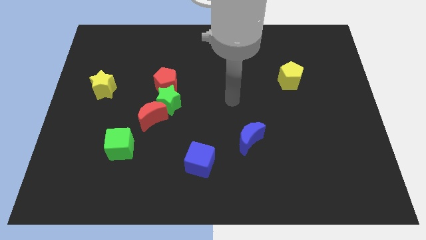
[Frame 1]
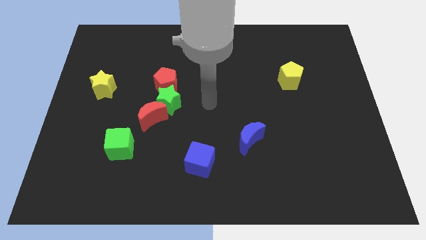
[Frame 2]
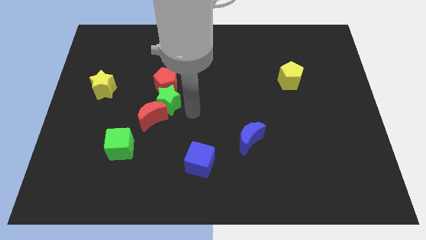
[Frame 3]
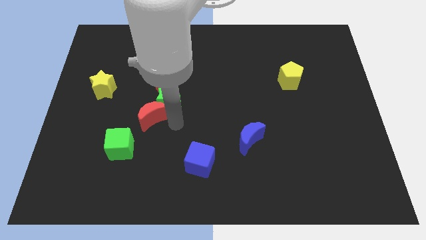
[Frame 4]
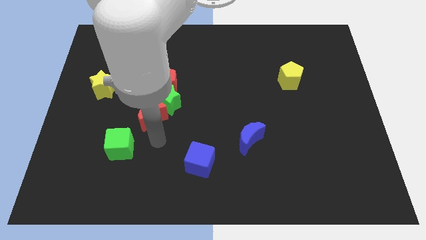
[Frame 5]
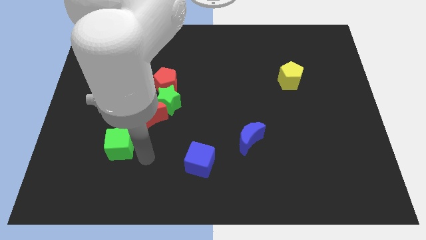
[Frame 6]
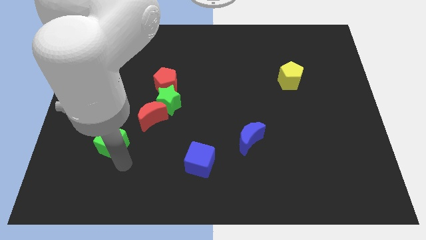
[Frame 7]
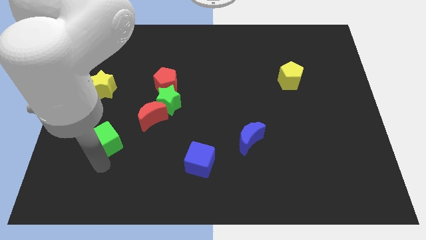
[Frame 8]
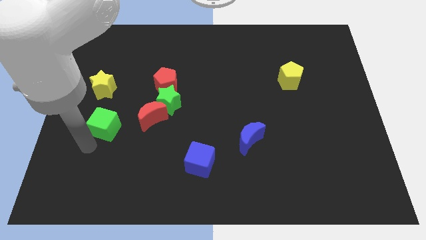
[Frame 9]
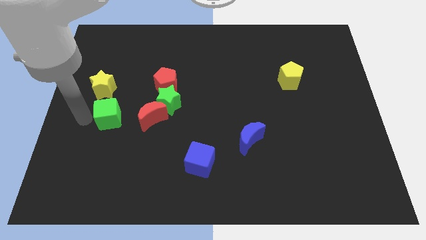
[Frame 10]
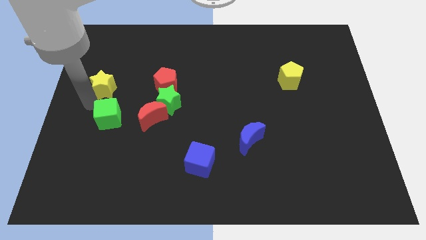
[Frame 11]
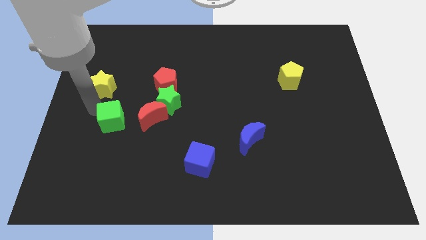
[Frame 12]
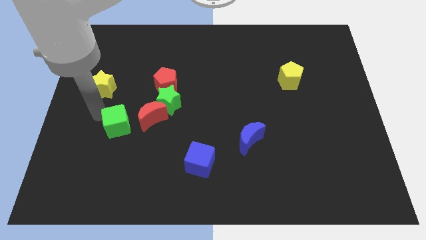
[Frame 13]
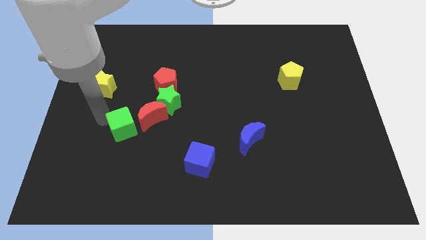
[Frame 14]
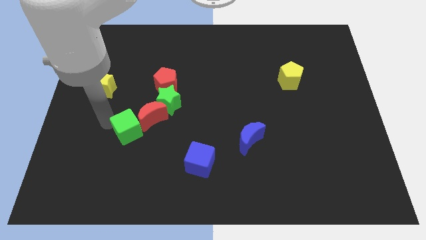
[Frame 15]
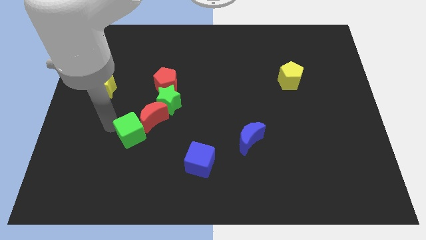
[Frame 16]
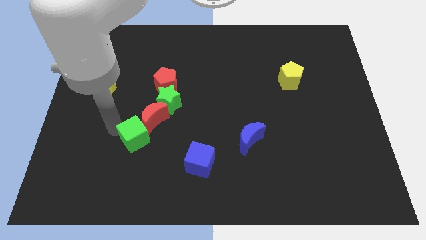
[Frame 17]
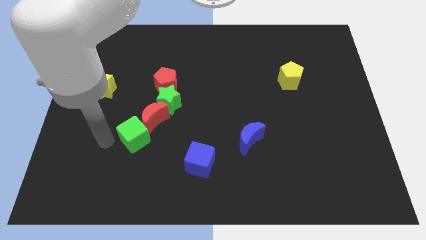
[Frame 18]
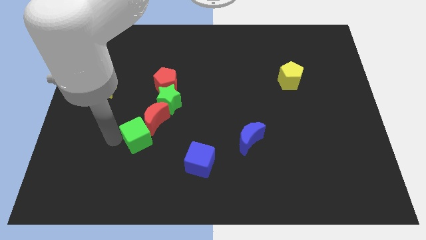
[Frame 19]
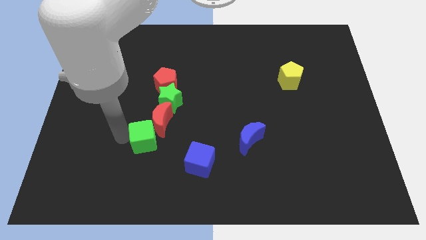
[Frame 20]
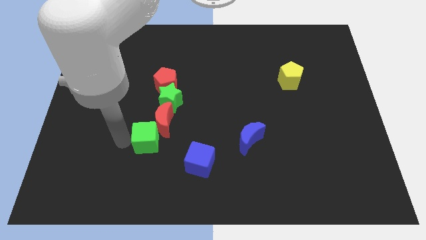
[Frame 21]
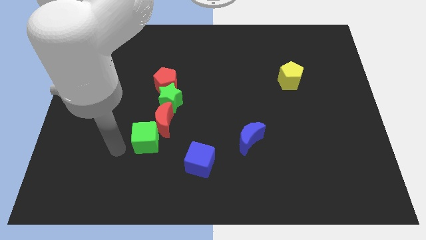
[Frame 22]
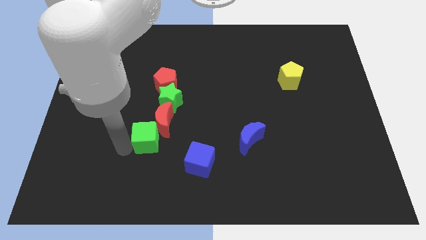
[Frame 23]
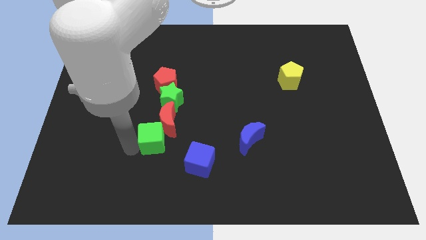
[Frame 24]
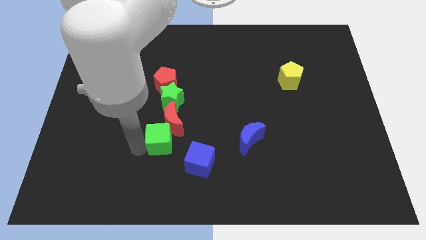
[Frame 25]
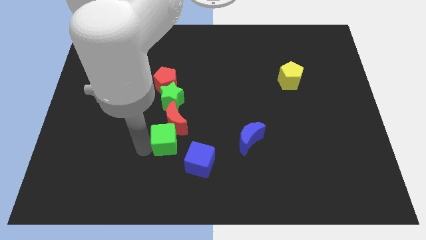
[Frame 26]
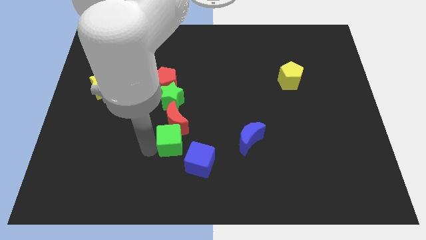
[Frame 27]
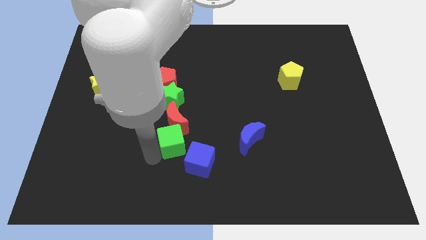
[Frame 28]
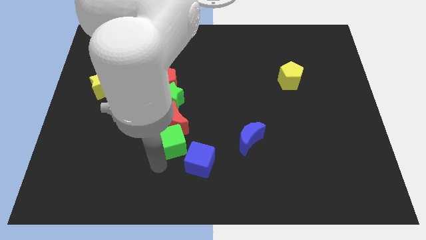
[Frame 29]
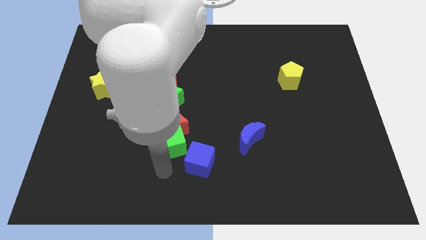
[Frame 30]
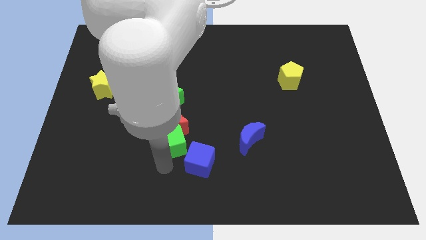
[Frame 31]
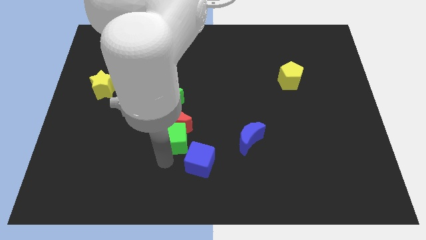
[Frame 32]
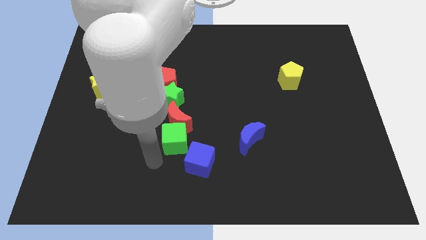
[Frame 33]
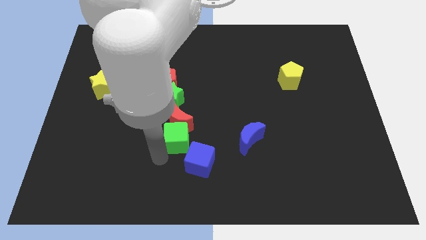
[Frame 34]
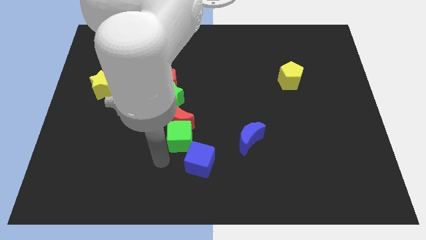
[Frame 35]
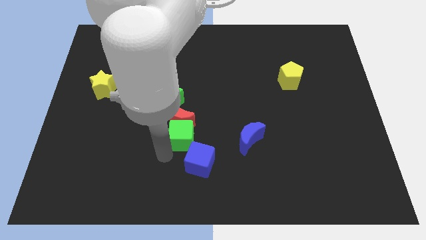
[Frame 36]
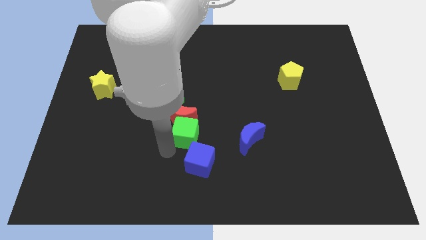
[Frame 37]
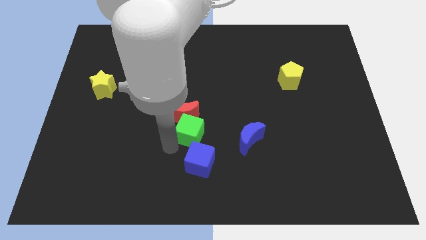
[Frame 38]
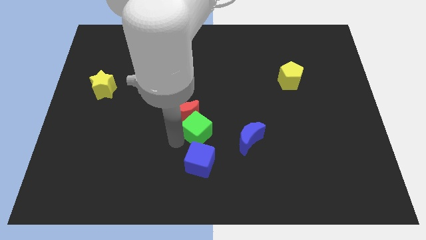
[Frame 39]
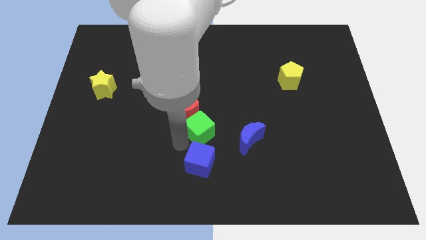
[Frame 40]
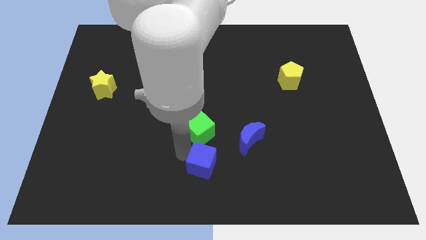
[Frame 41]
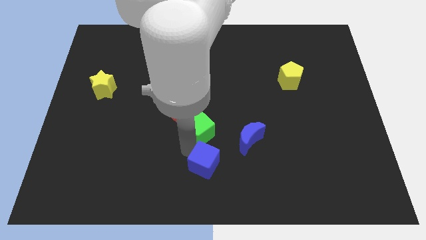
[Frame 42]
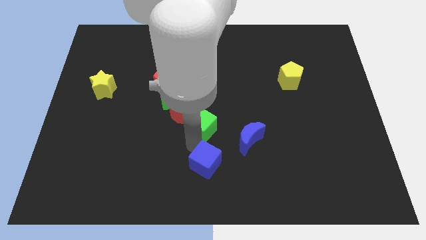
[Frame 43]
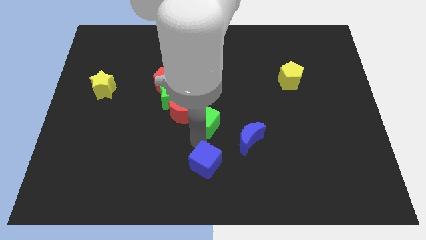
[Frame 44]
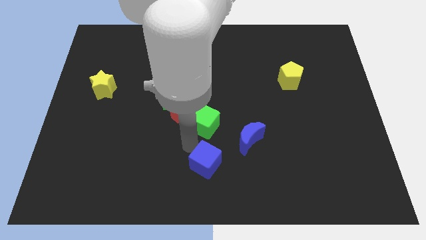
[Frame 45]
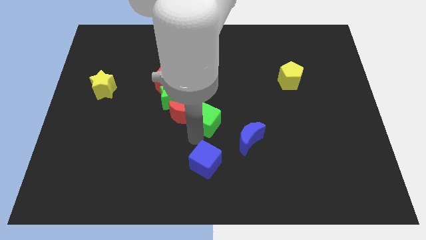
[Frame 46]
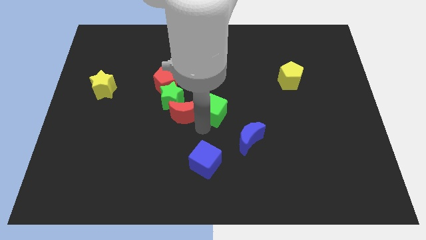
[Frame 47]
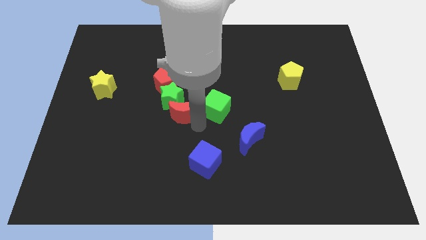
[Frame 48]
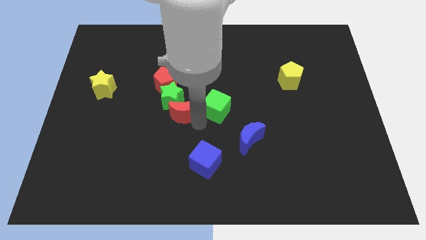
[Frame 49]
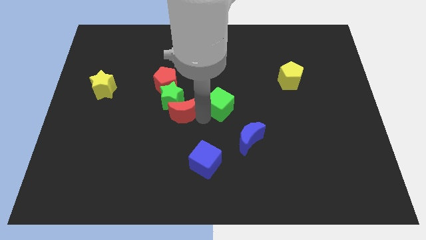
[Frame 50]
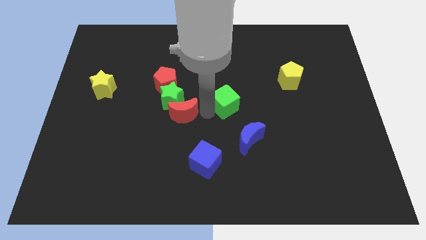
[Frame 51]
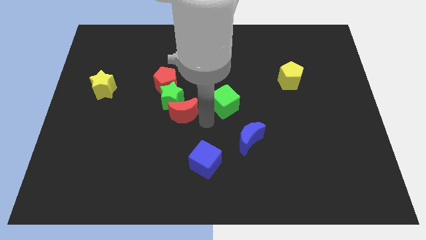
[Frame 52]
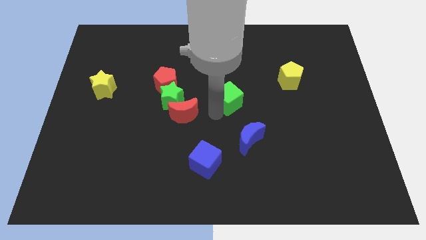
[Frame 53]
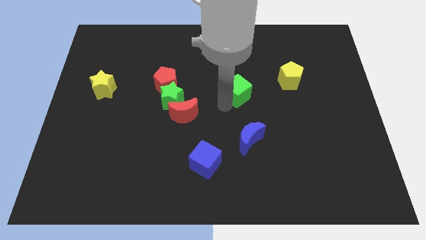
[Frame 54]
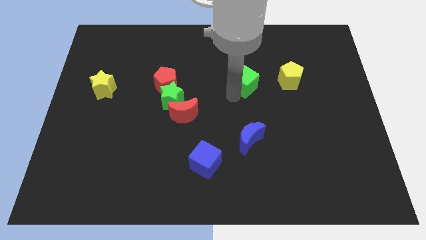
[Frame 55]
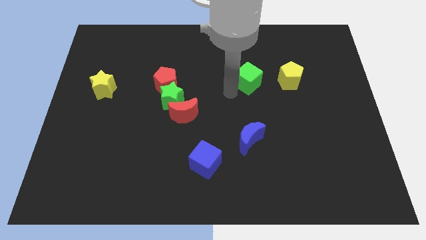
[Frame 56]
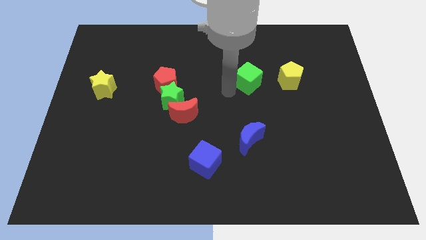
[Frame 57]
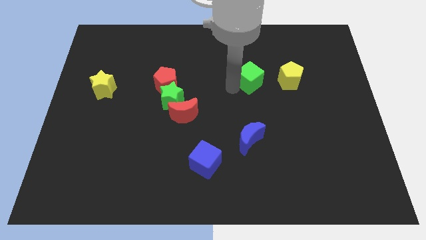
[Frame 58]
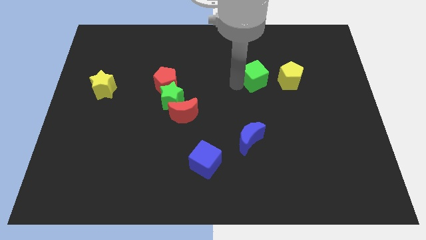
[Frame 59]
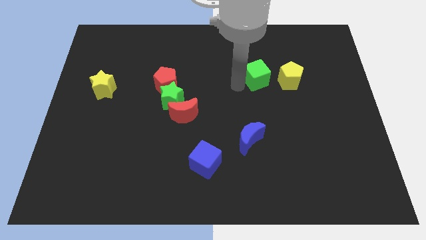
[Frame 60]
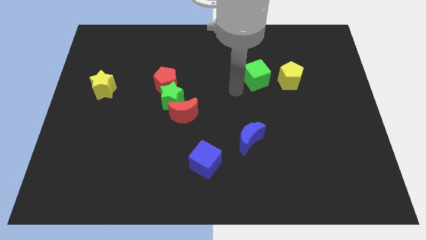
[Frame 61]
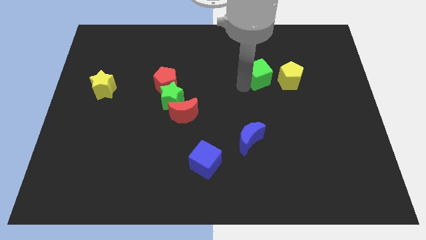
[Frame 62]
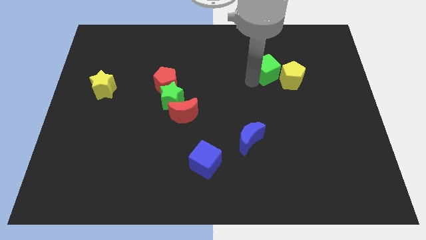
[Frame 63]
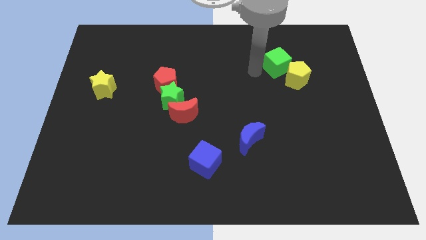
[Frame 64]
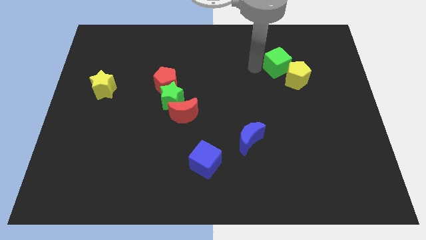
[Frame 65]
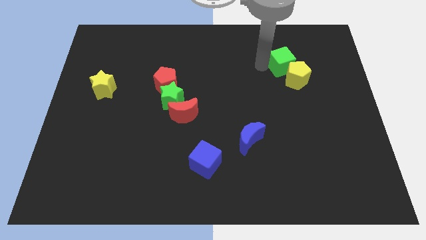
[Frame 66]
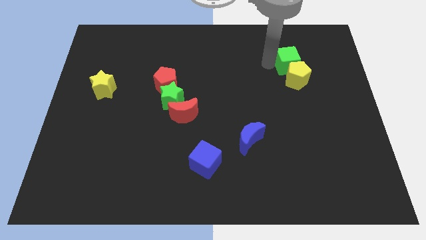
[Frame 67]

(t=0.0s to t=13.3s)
move the green cube to the top right side of the yellow pentagon
